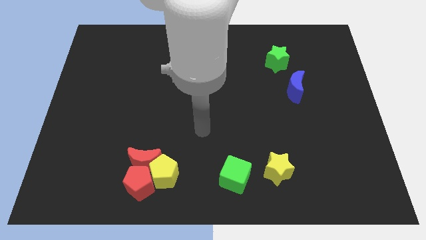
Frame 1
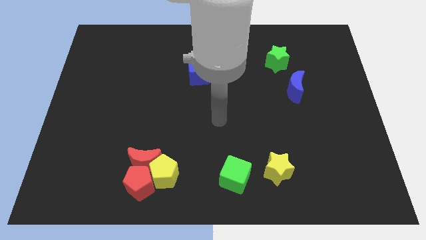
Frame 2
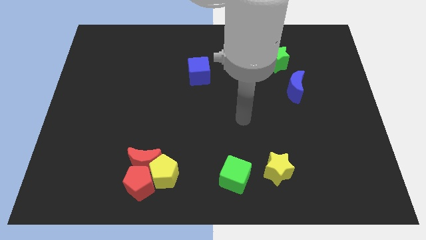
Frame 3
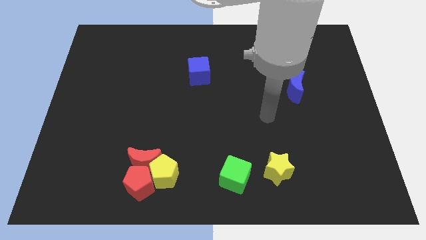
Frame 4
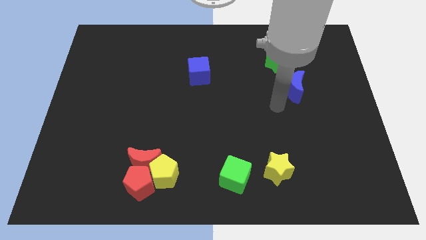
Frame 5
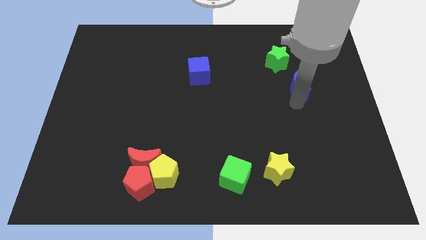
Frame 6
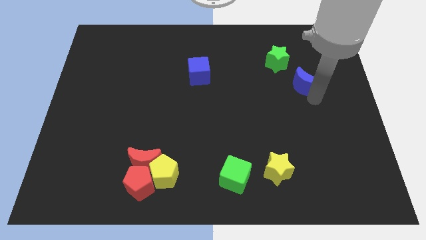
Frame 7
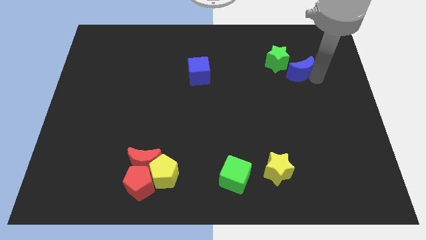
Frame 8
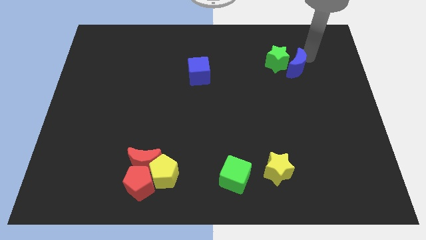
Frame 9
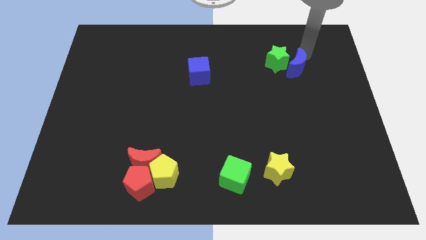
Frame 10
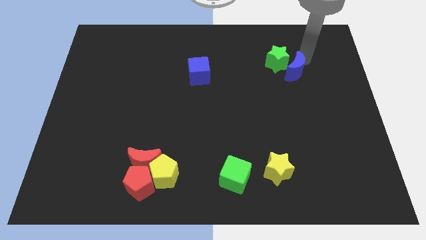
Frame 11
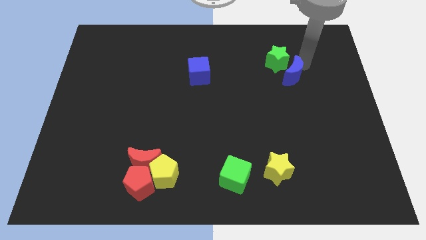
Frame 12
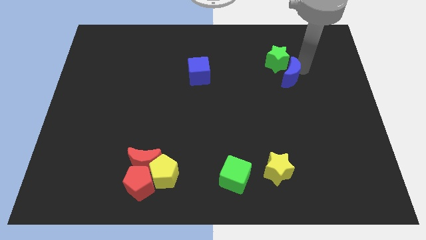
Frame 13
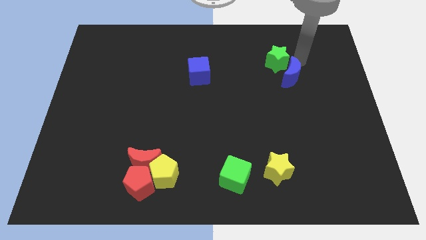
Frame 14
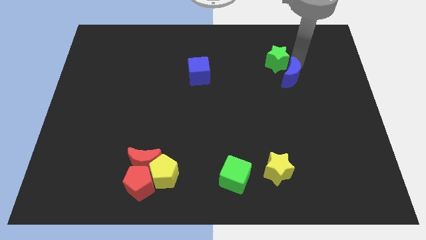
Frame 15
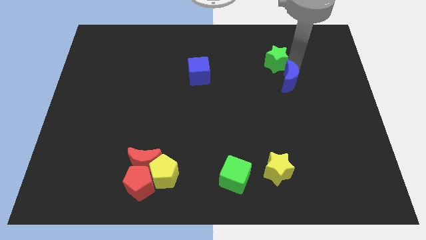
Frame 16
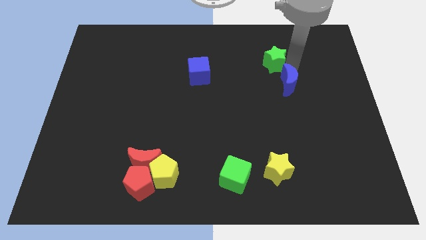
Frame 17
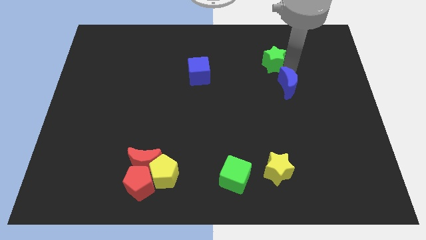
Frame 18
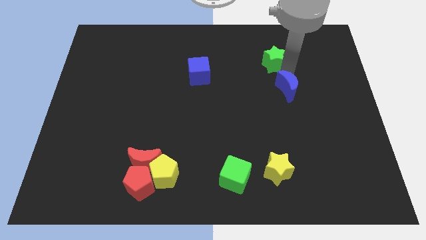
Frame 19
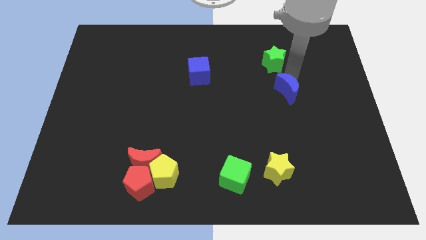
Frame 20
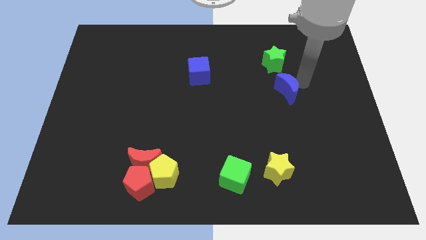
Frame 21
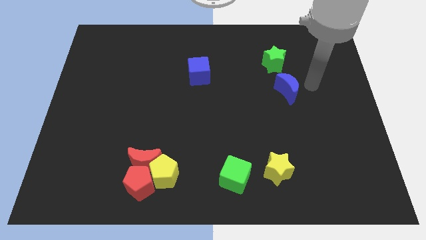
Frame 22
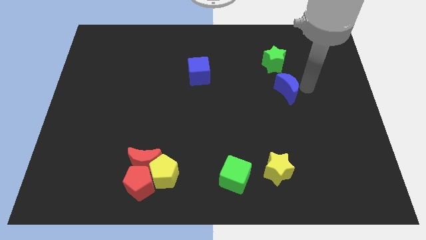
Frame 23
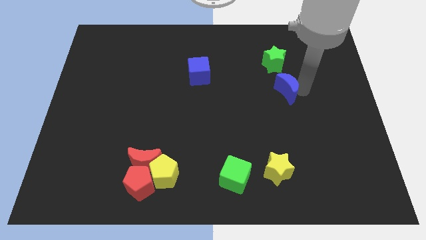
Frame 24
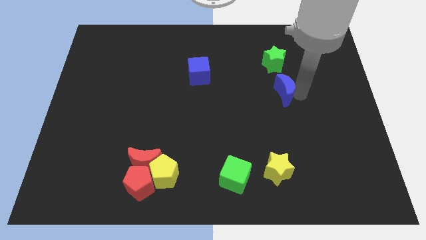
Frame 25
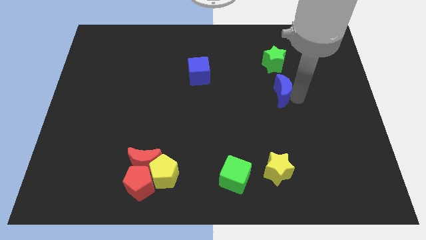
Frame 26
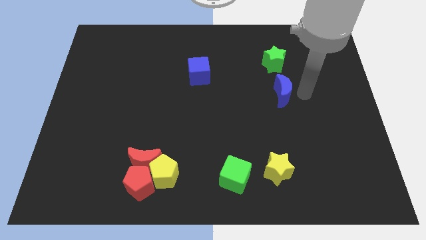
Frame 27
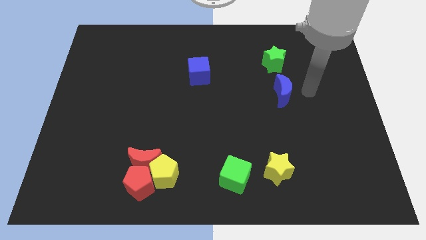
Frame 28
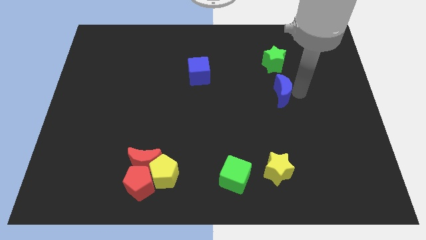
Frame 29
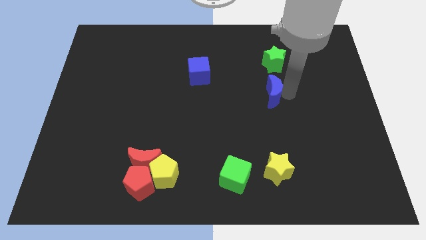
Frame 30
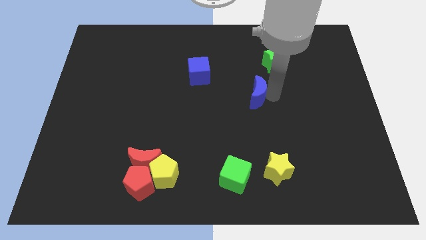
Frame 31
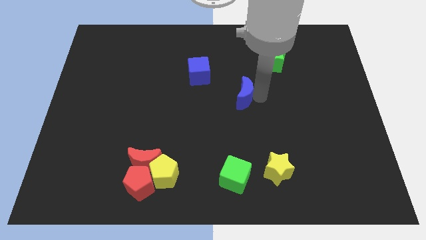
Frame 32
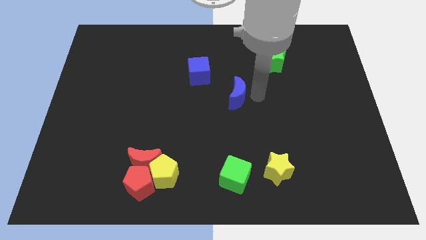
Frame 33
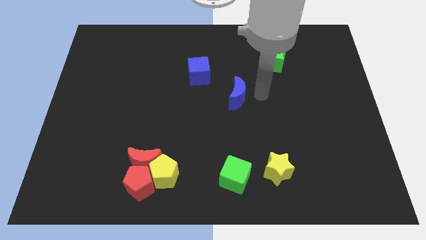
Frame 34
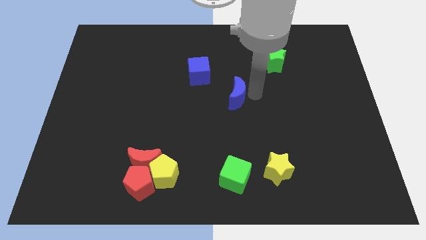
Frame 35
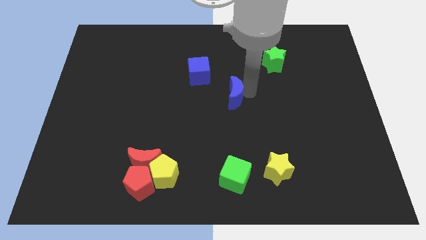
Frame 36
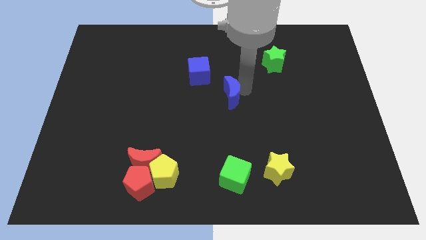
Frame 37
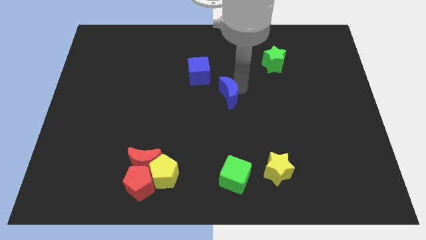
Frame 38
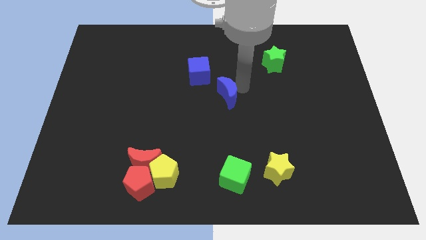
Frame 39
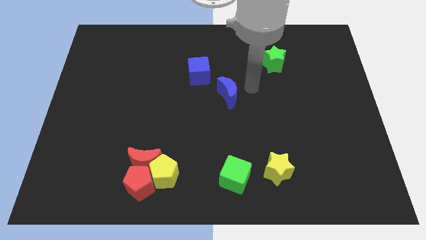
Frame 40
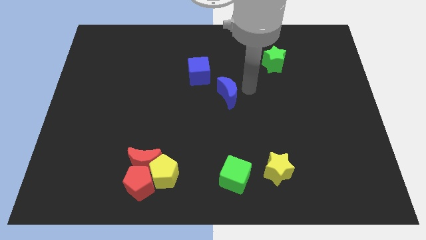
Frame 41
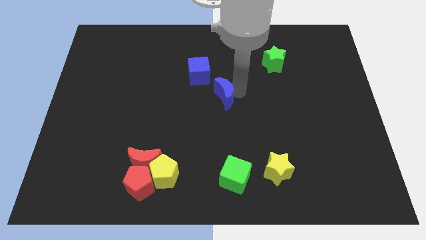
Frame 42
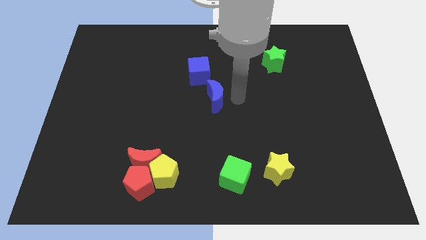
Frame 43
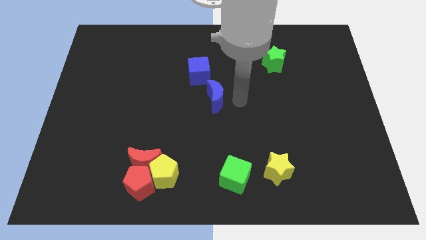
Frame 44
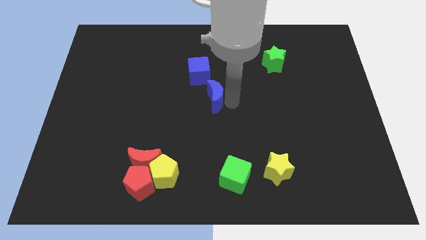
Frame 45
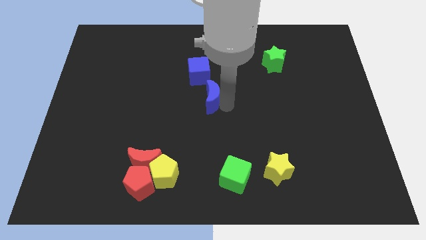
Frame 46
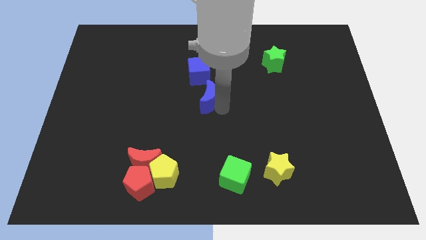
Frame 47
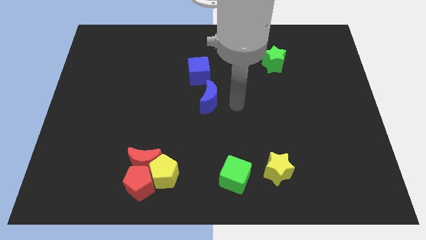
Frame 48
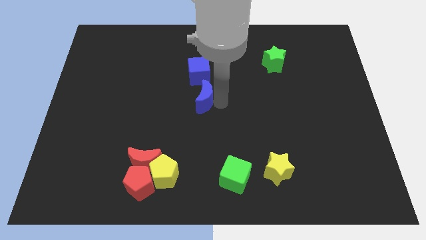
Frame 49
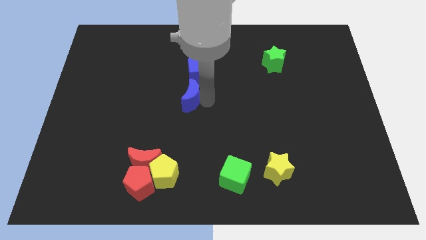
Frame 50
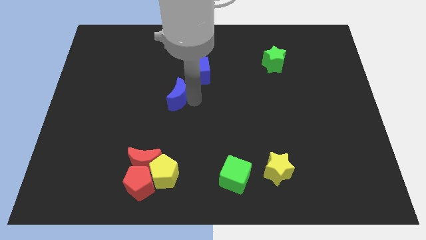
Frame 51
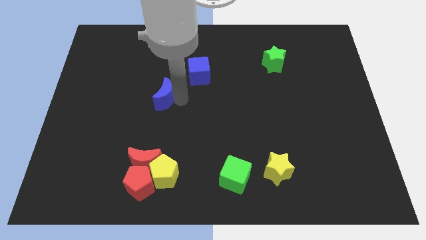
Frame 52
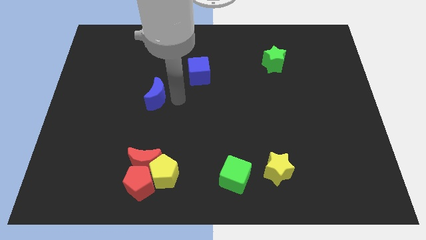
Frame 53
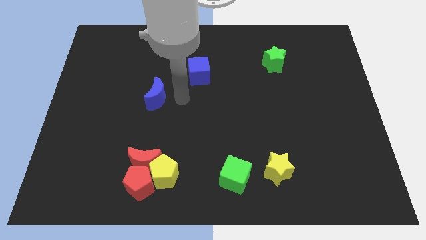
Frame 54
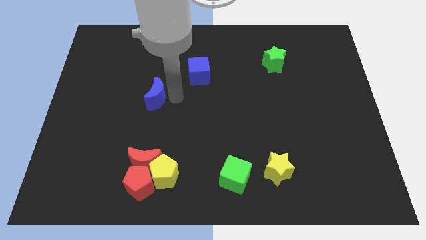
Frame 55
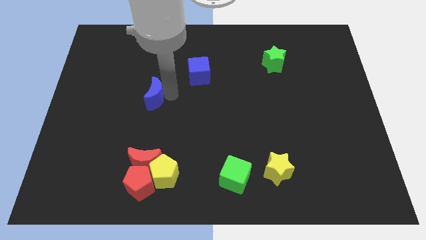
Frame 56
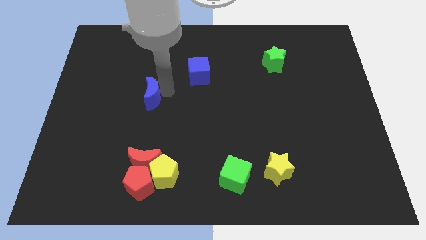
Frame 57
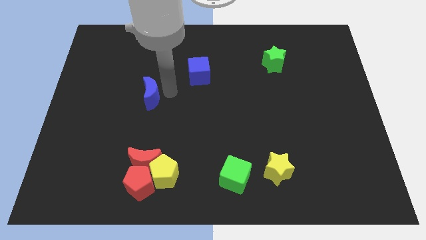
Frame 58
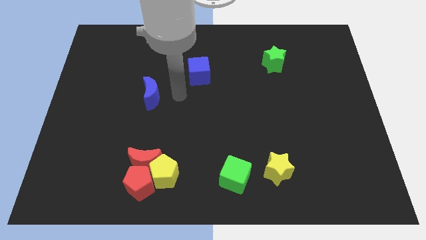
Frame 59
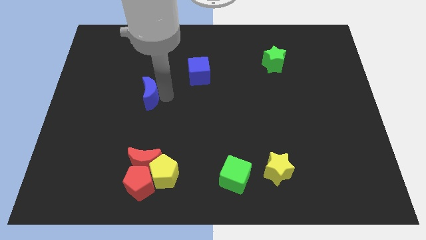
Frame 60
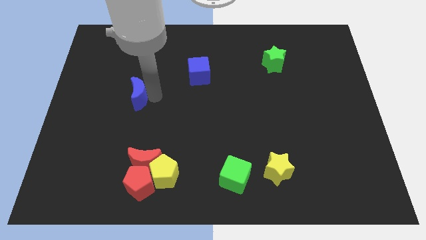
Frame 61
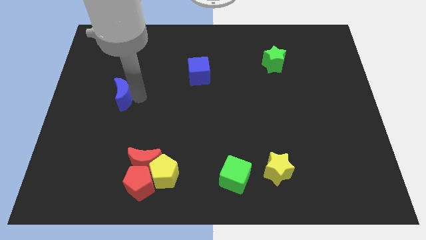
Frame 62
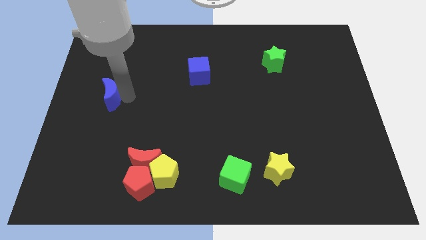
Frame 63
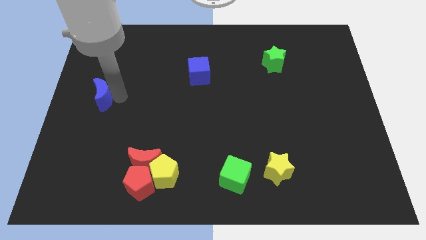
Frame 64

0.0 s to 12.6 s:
move the blue moon to the left side

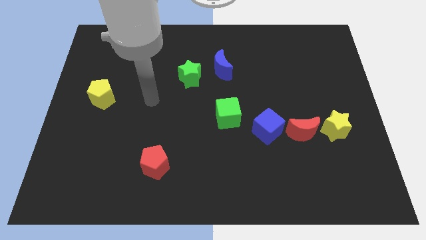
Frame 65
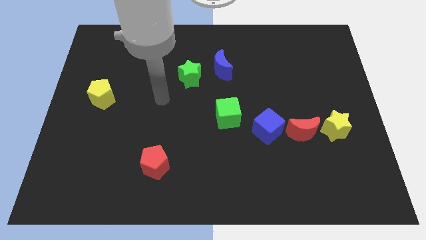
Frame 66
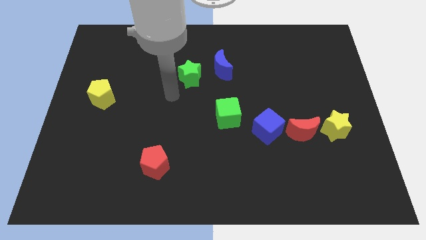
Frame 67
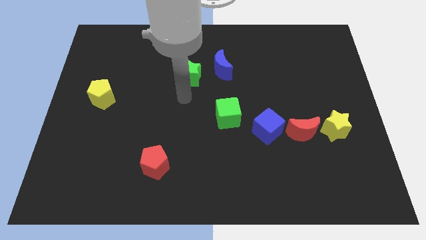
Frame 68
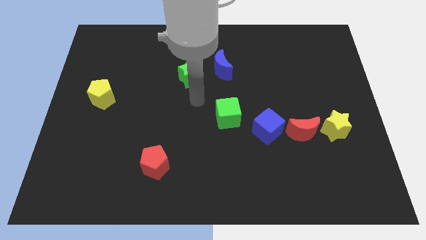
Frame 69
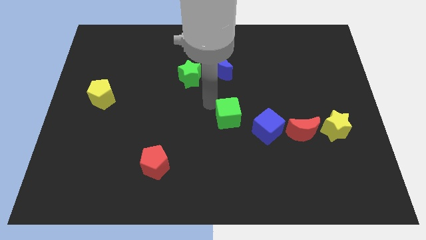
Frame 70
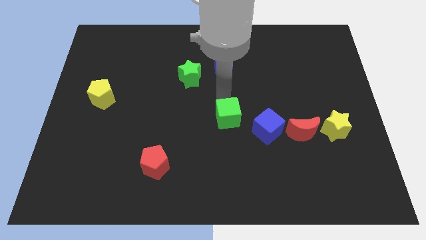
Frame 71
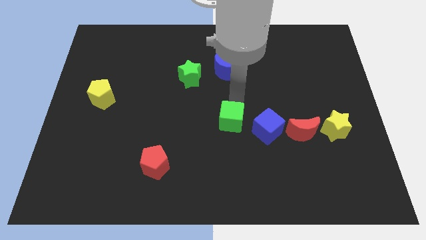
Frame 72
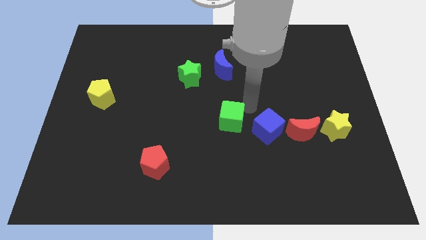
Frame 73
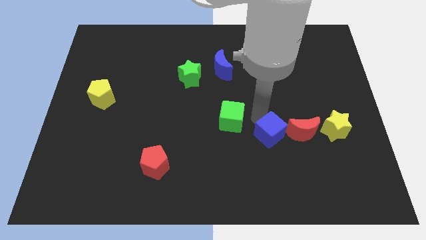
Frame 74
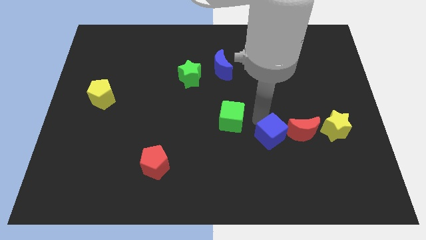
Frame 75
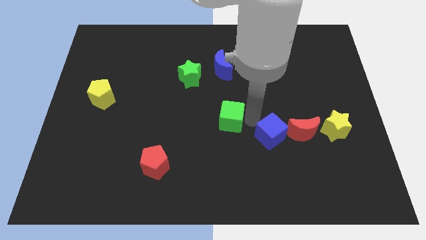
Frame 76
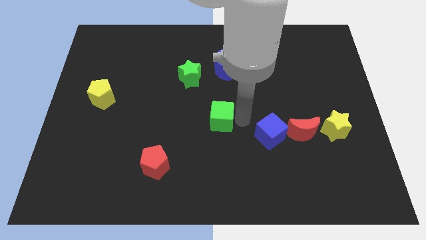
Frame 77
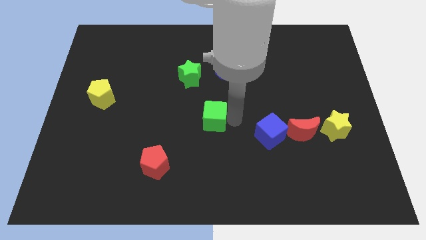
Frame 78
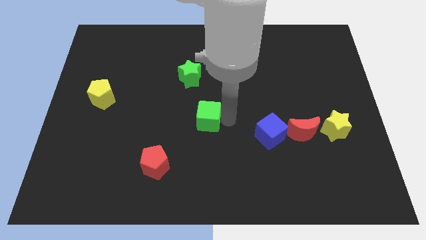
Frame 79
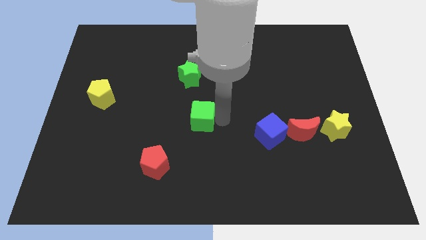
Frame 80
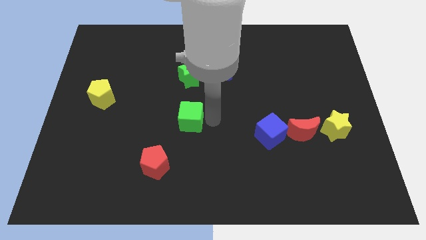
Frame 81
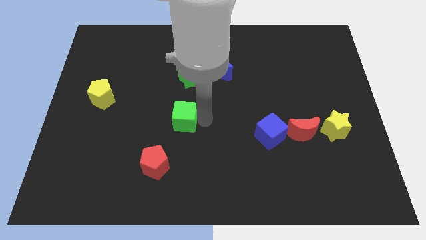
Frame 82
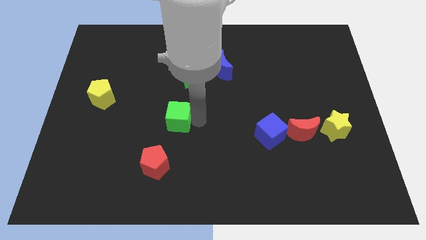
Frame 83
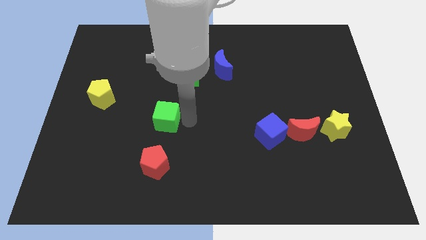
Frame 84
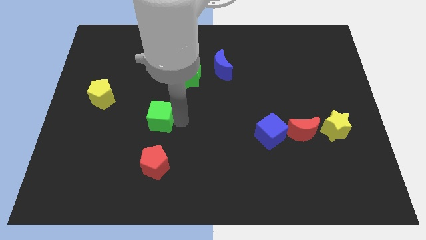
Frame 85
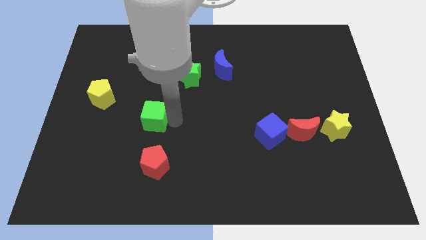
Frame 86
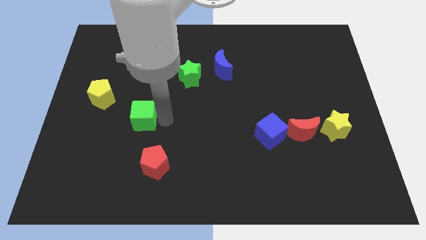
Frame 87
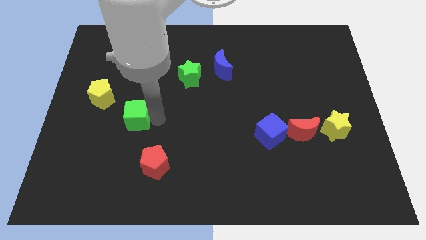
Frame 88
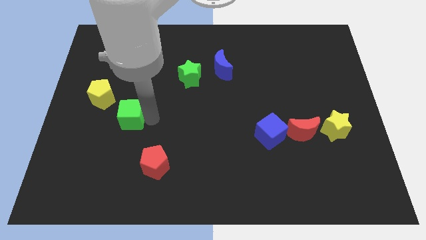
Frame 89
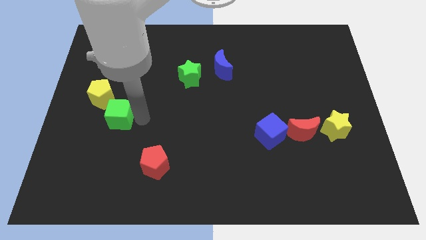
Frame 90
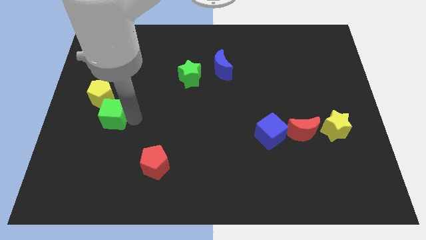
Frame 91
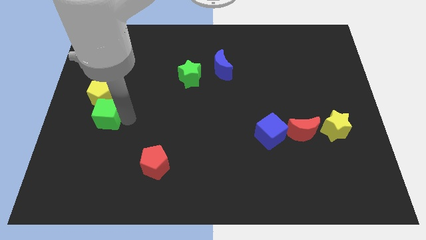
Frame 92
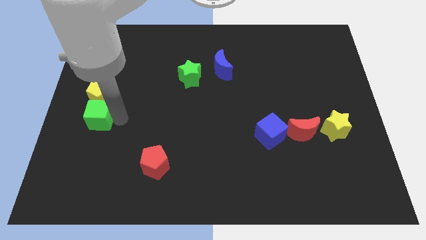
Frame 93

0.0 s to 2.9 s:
slide the green cube to the left side of the board
